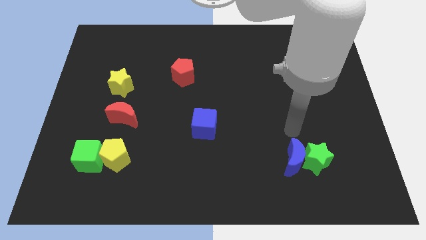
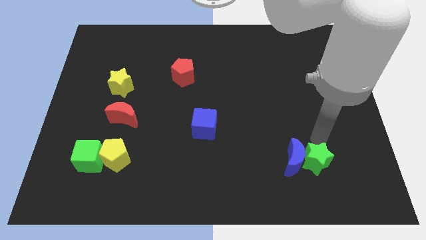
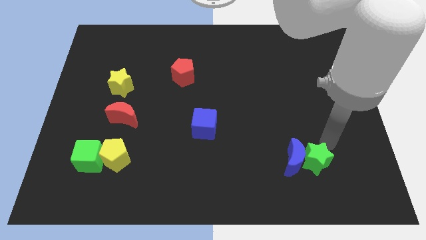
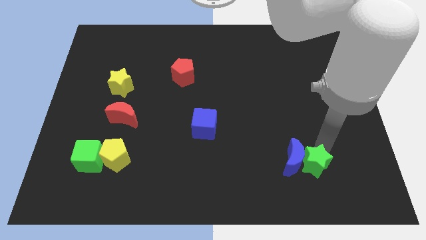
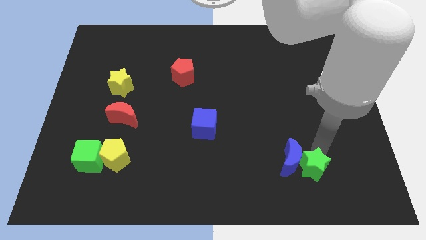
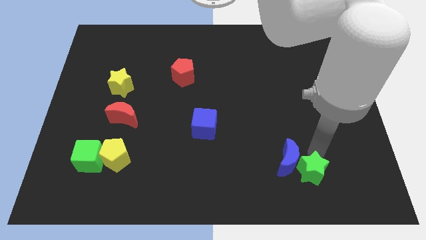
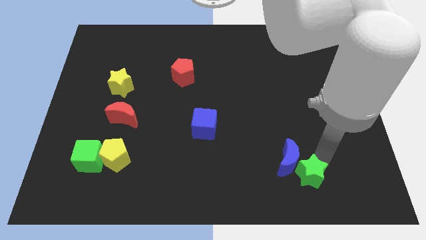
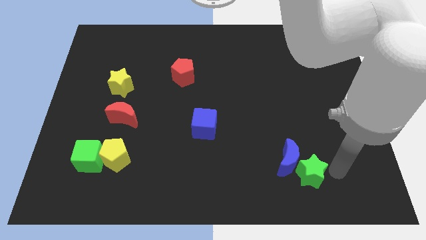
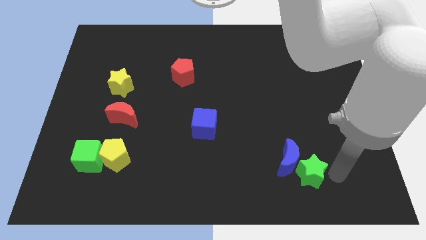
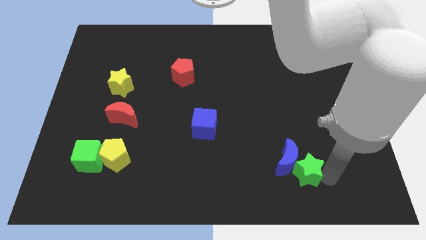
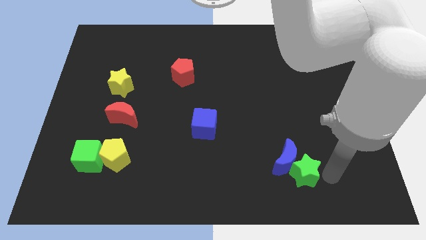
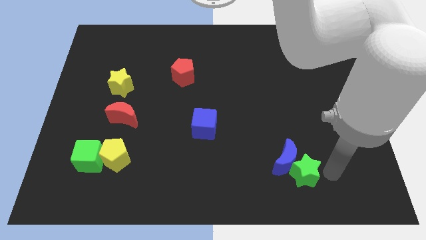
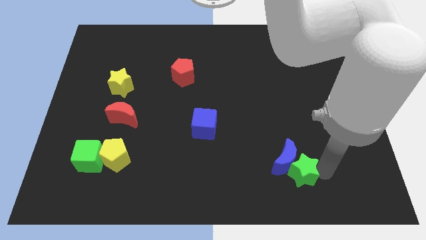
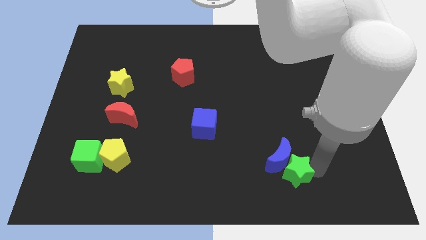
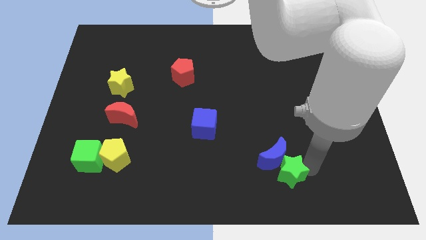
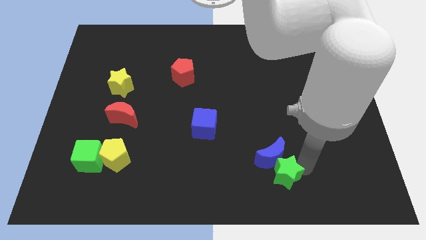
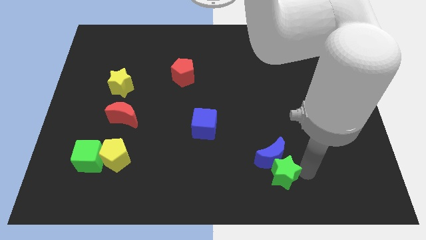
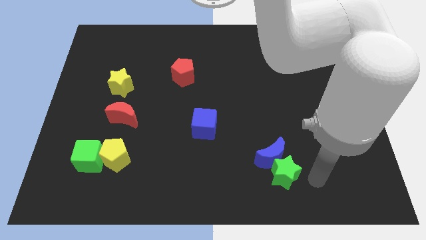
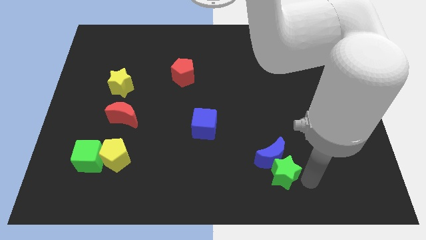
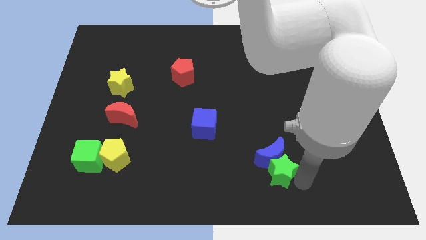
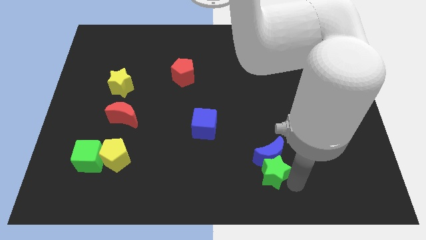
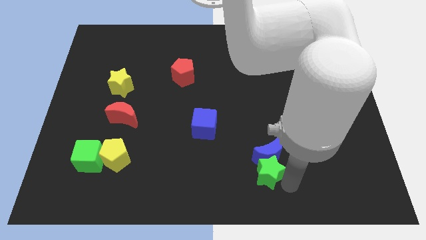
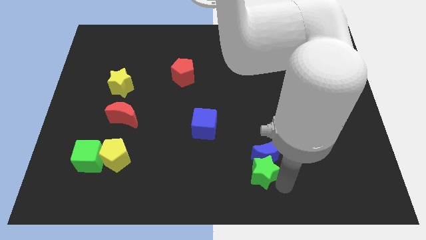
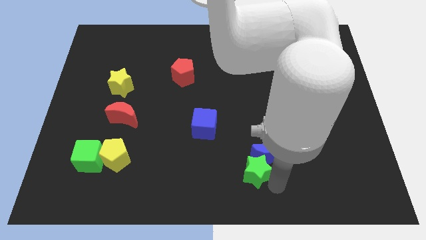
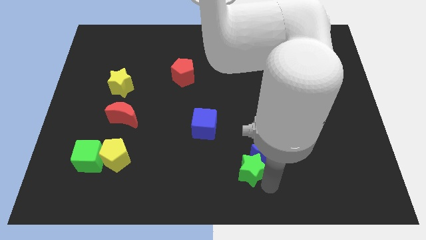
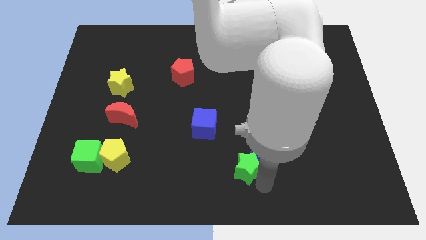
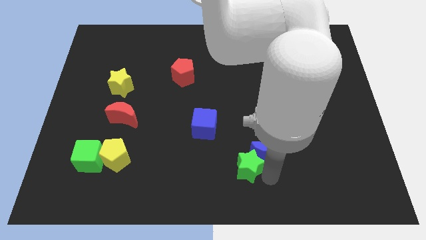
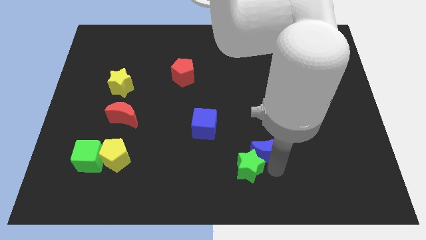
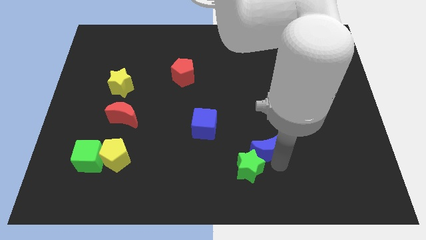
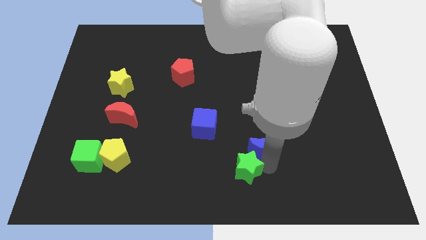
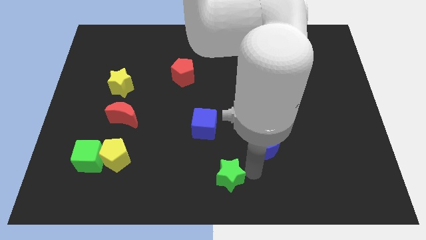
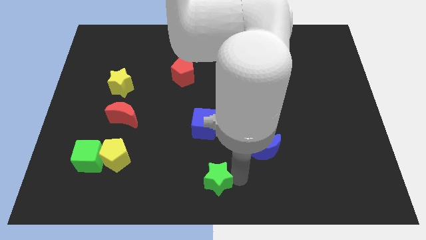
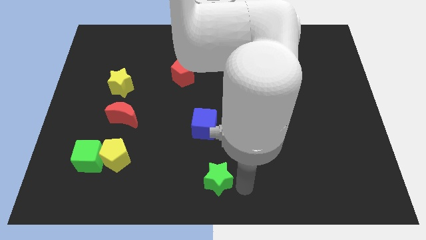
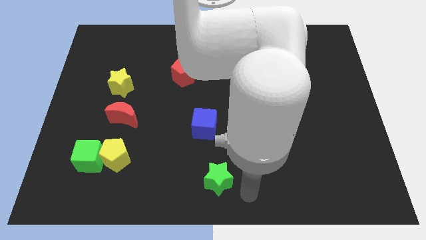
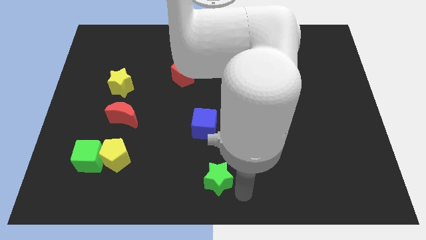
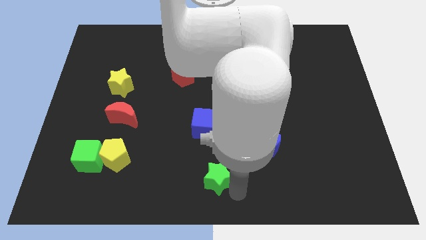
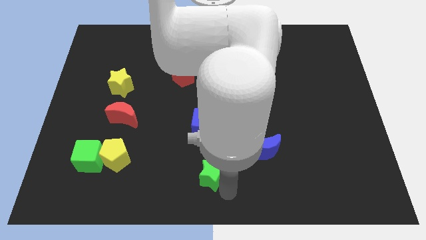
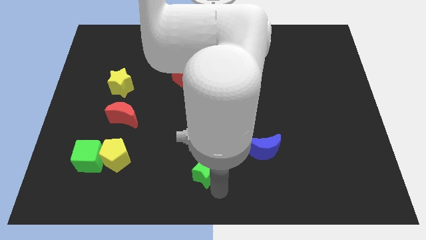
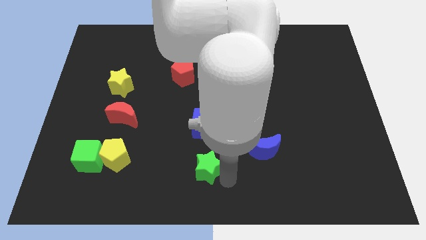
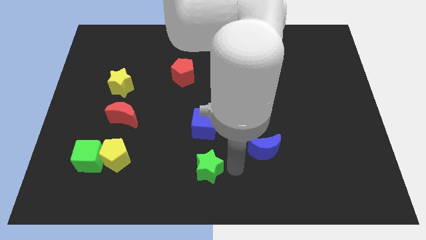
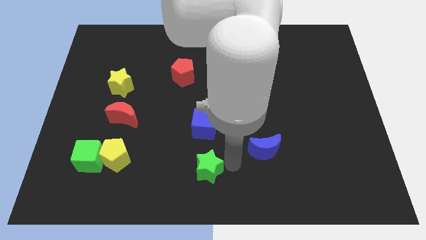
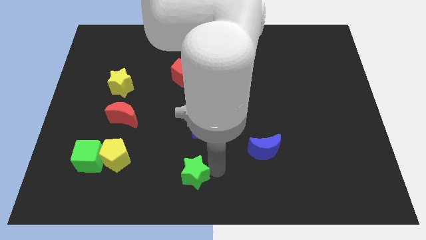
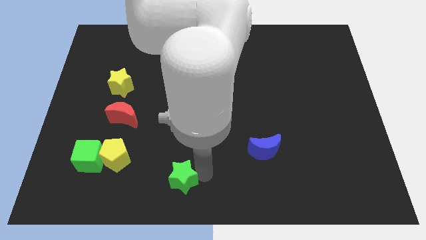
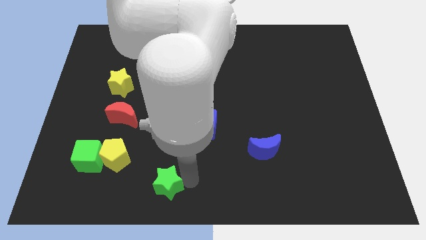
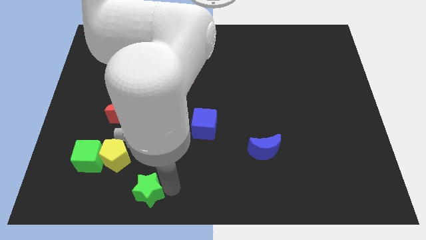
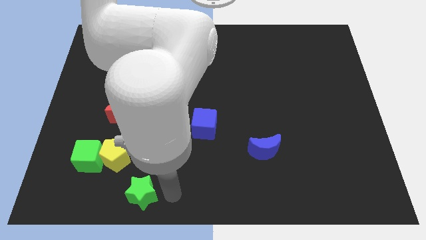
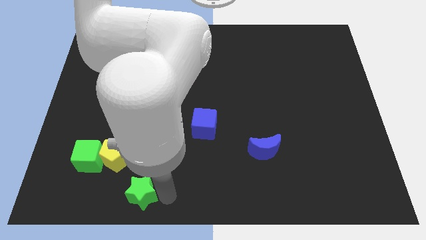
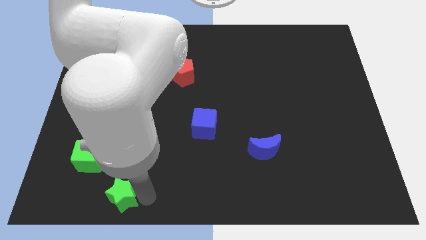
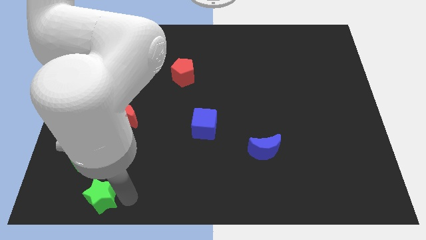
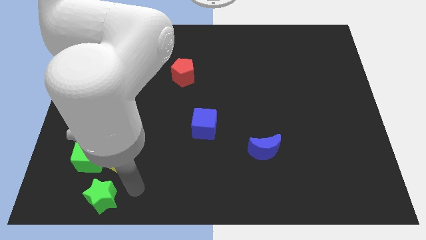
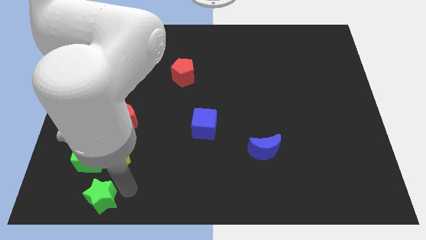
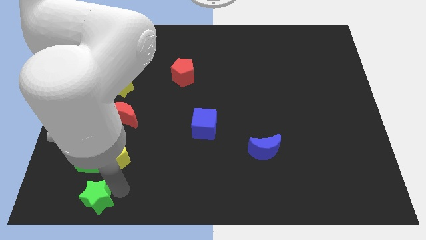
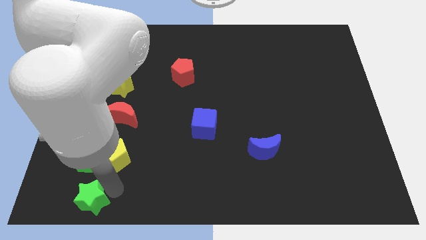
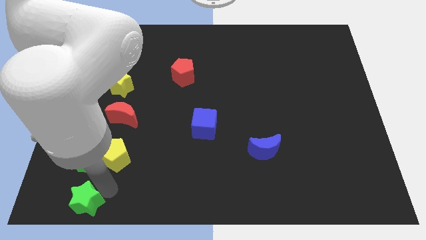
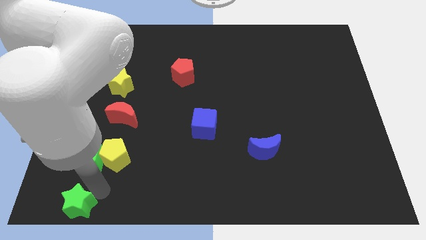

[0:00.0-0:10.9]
slide the green star to the bottom left of the board
